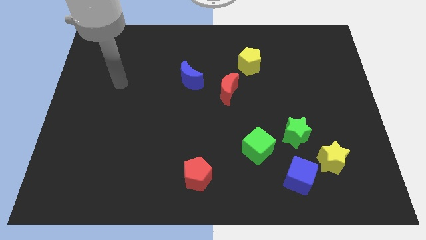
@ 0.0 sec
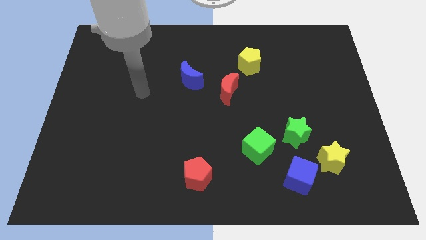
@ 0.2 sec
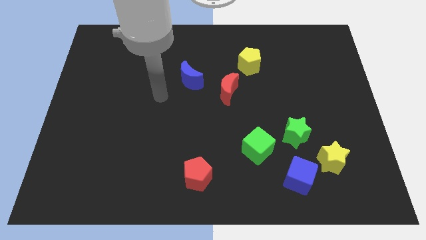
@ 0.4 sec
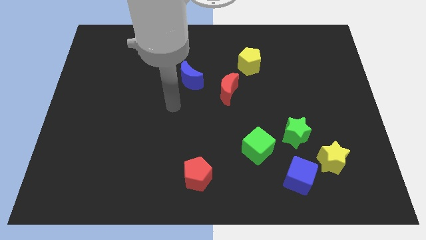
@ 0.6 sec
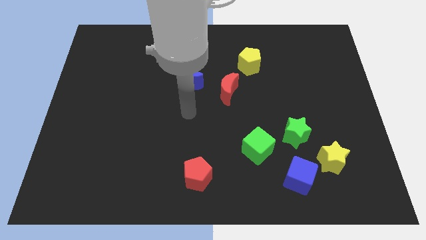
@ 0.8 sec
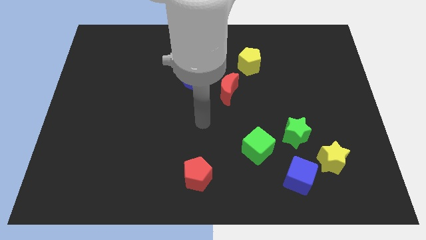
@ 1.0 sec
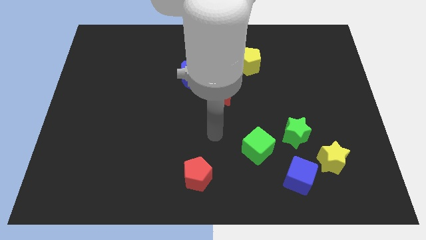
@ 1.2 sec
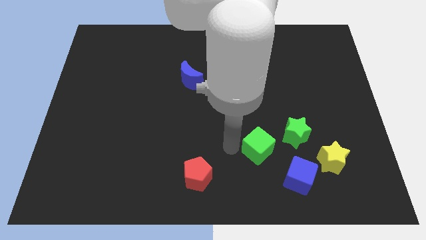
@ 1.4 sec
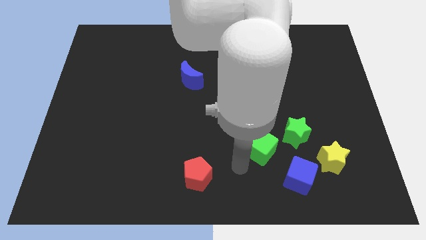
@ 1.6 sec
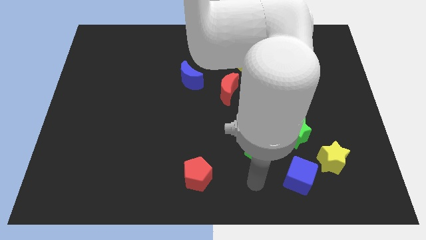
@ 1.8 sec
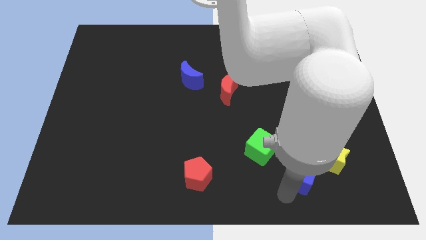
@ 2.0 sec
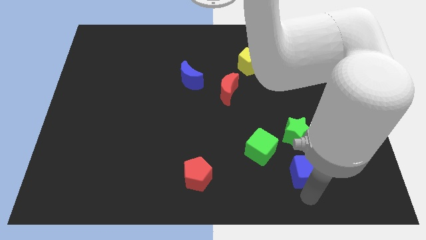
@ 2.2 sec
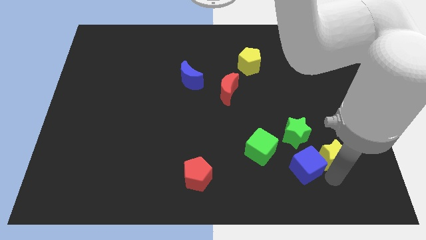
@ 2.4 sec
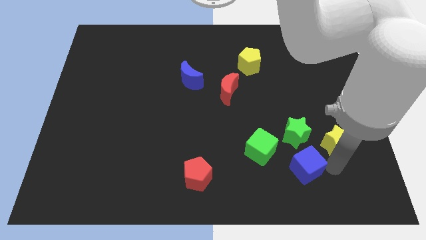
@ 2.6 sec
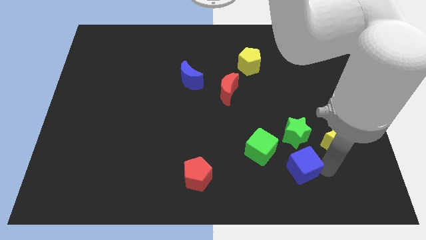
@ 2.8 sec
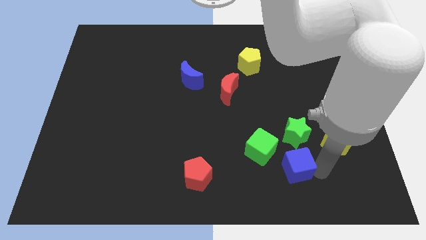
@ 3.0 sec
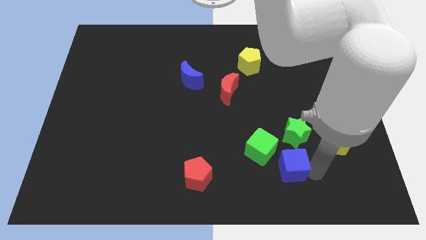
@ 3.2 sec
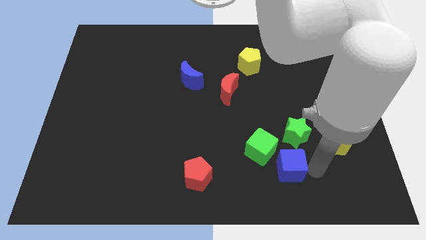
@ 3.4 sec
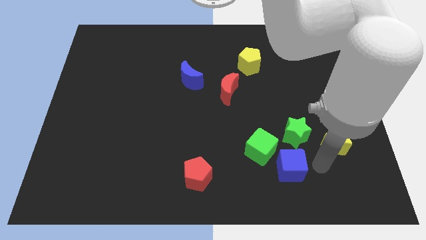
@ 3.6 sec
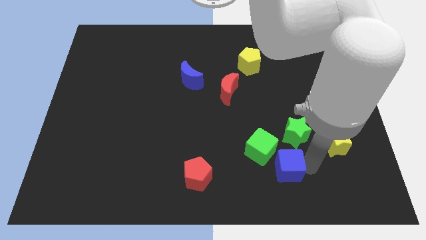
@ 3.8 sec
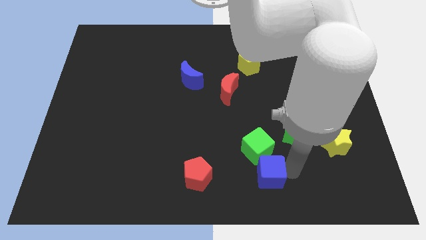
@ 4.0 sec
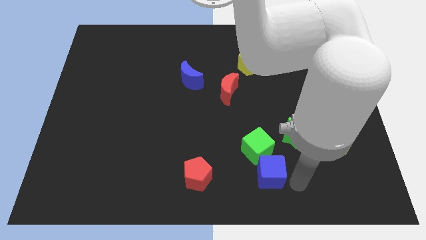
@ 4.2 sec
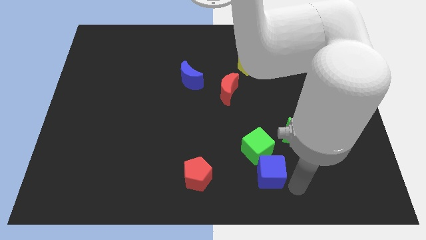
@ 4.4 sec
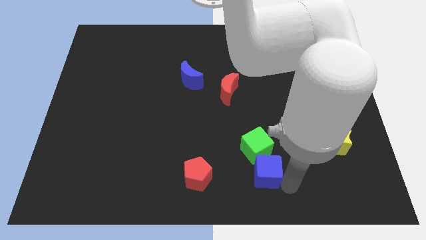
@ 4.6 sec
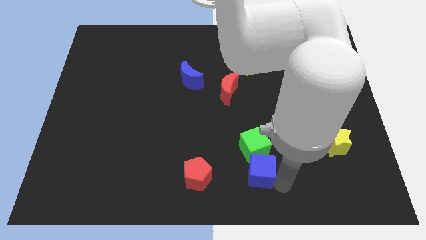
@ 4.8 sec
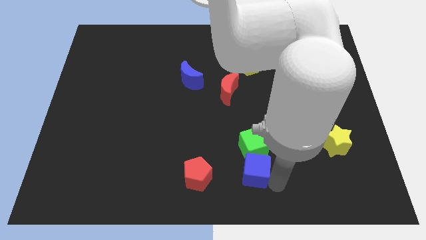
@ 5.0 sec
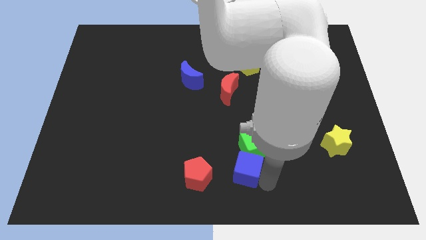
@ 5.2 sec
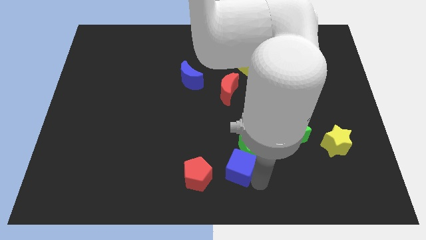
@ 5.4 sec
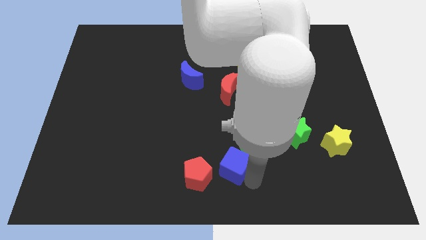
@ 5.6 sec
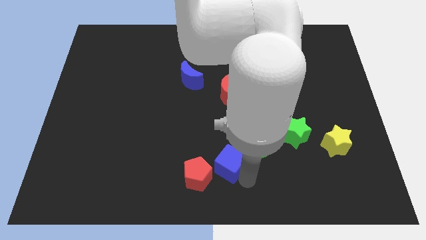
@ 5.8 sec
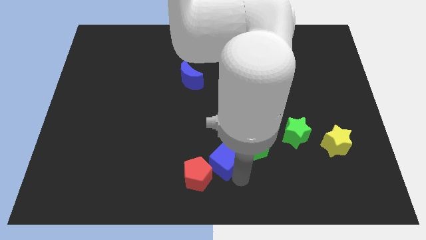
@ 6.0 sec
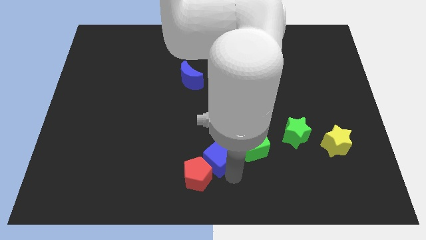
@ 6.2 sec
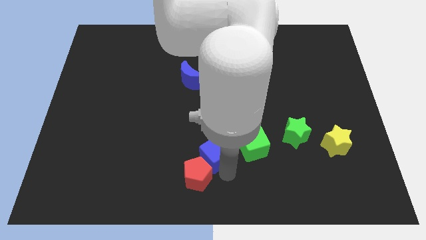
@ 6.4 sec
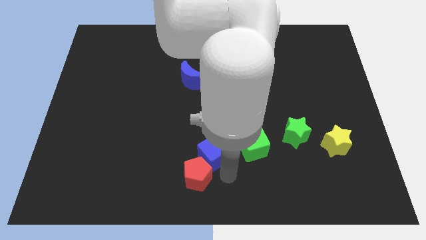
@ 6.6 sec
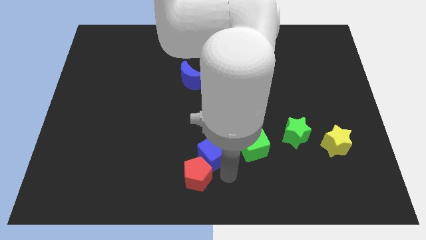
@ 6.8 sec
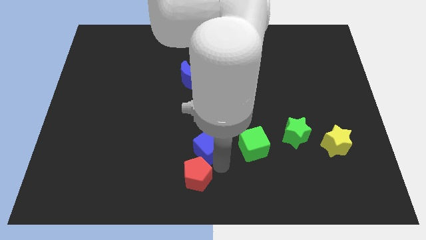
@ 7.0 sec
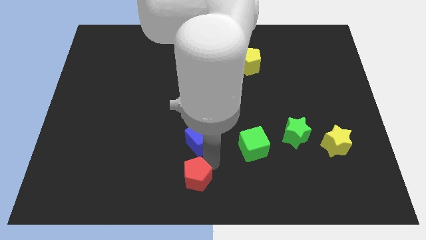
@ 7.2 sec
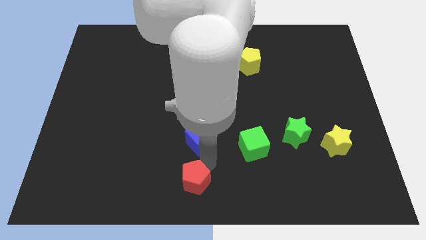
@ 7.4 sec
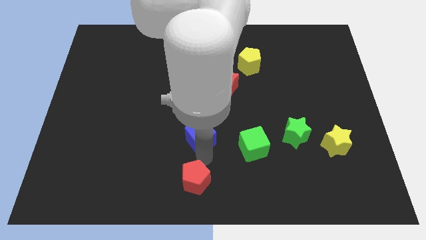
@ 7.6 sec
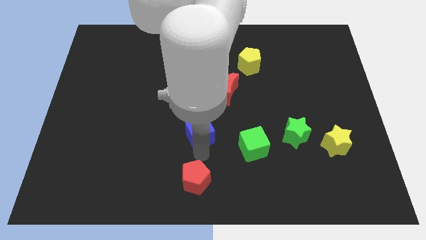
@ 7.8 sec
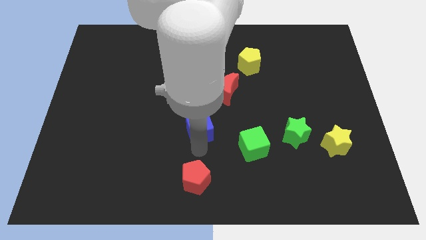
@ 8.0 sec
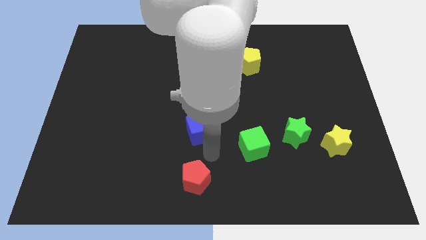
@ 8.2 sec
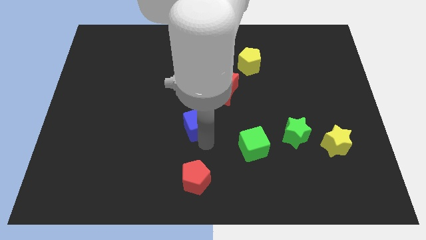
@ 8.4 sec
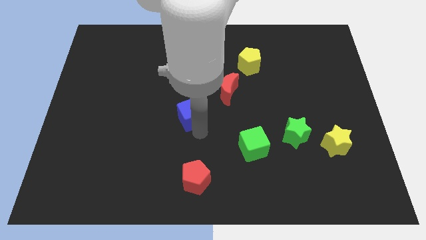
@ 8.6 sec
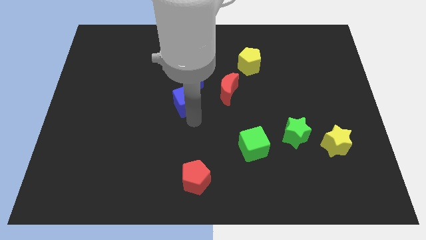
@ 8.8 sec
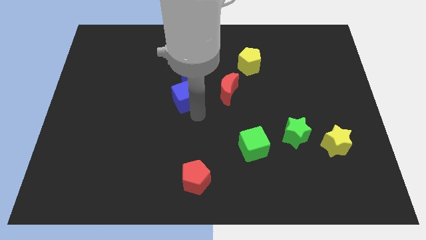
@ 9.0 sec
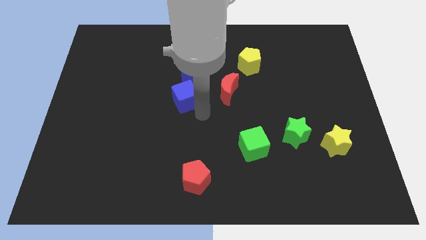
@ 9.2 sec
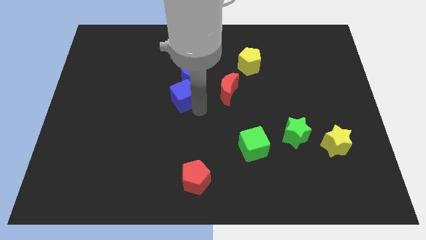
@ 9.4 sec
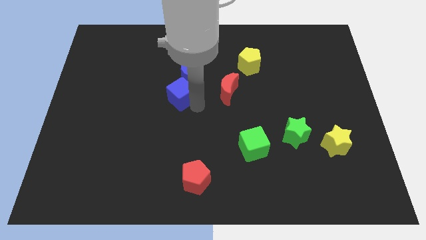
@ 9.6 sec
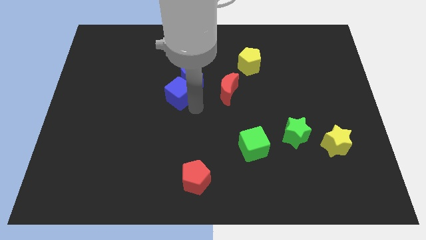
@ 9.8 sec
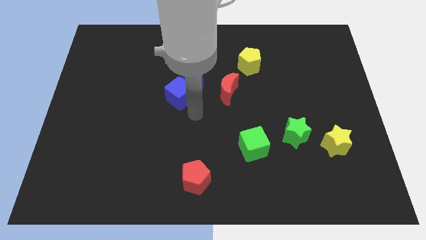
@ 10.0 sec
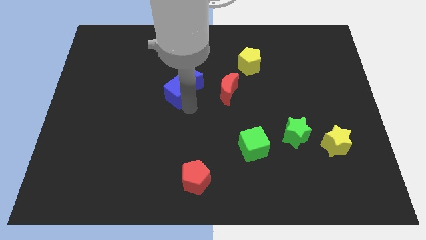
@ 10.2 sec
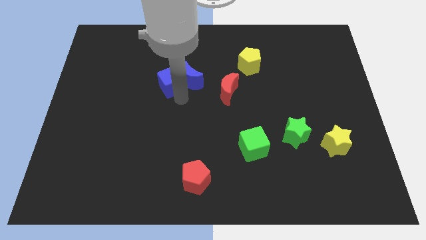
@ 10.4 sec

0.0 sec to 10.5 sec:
push the blue cube to the top left side of the blue moon

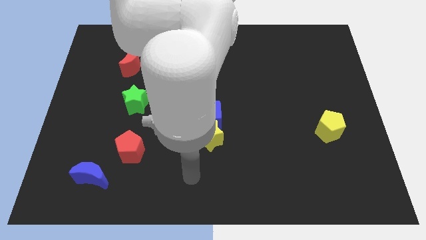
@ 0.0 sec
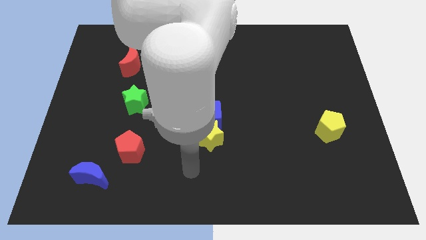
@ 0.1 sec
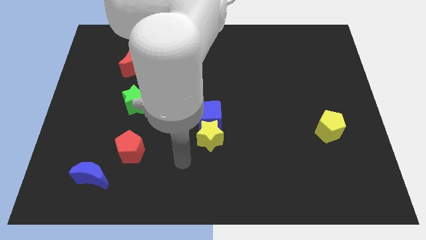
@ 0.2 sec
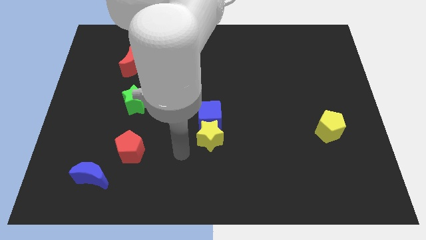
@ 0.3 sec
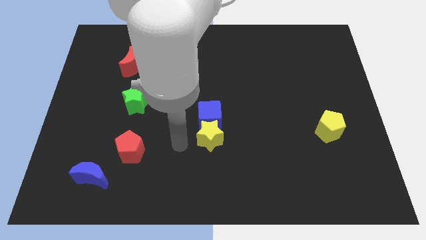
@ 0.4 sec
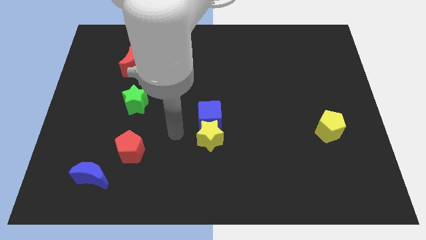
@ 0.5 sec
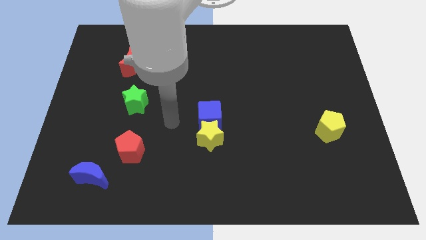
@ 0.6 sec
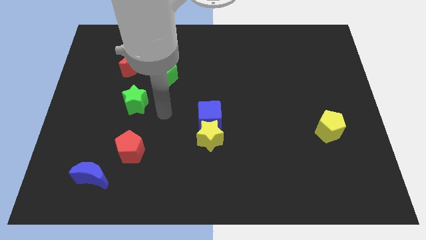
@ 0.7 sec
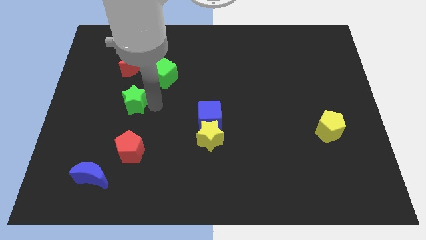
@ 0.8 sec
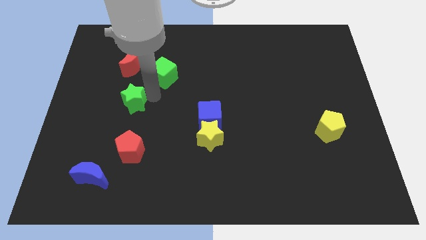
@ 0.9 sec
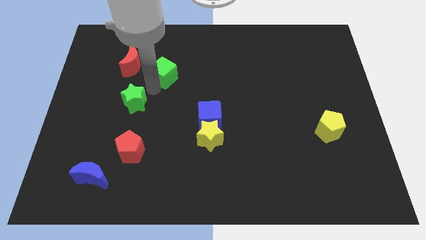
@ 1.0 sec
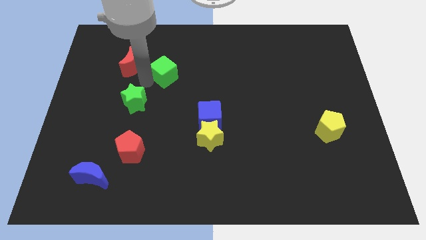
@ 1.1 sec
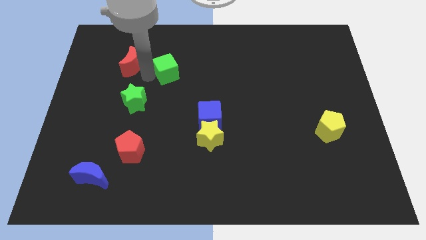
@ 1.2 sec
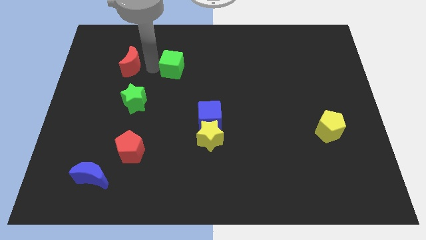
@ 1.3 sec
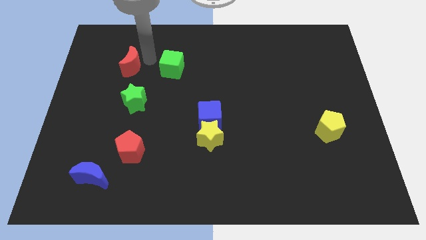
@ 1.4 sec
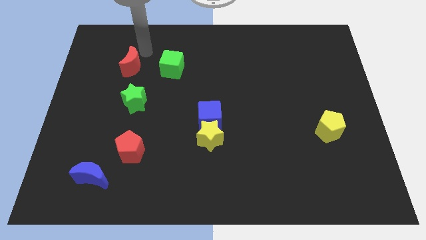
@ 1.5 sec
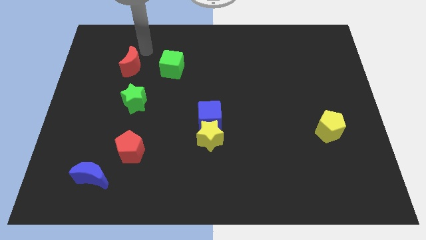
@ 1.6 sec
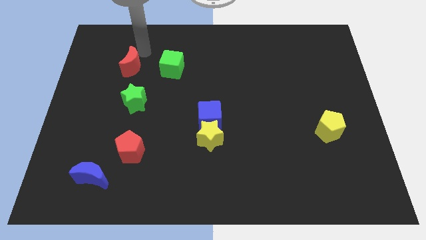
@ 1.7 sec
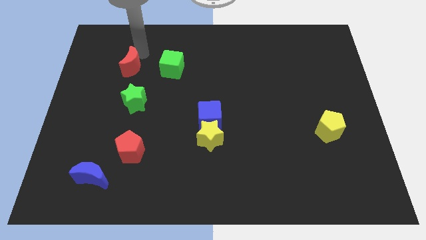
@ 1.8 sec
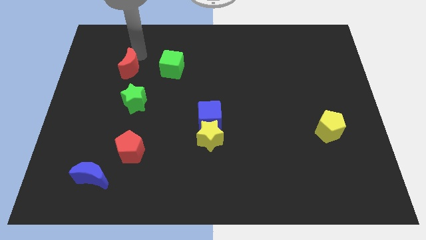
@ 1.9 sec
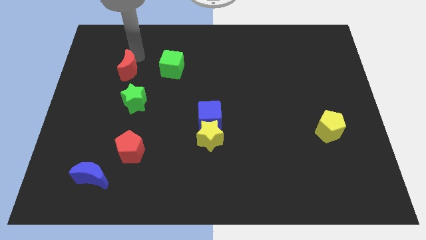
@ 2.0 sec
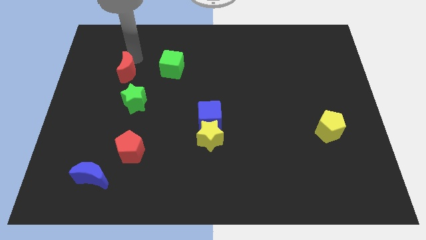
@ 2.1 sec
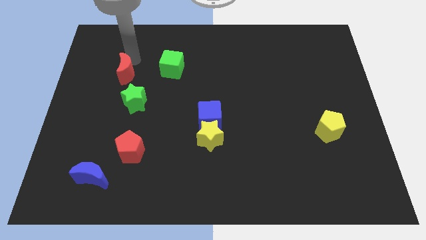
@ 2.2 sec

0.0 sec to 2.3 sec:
move the red moon to the top left side of the green star
